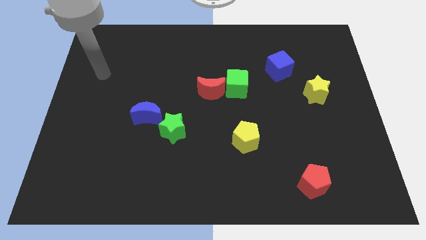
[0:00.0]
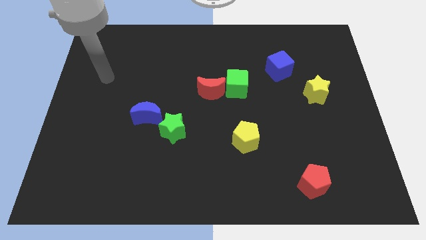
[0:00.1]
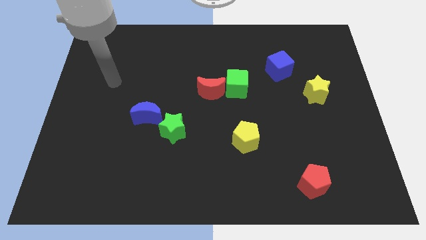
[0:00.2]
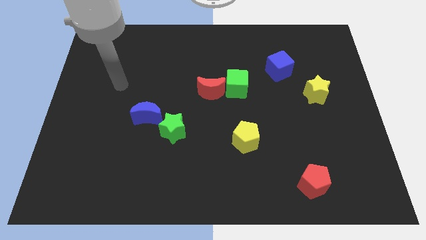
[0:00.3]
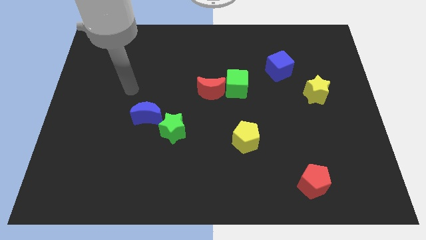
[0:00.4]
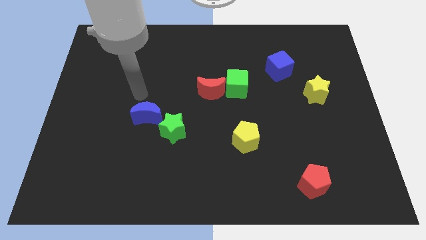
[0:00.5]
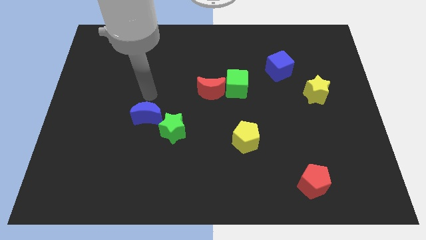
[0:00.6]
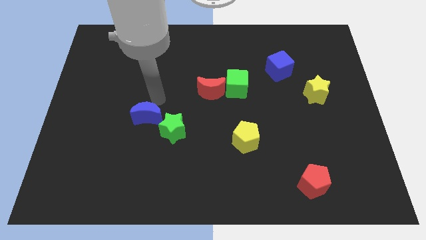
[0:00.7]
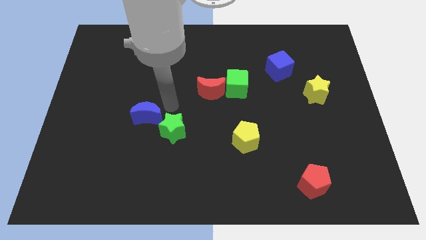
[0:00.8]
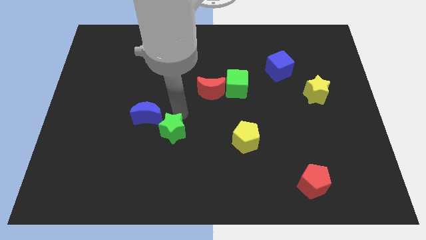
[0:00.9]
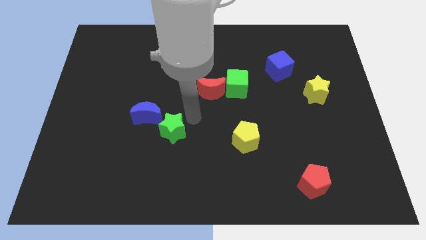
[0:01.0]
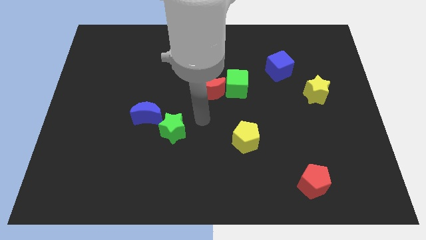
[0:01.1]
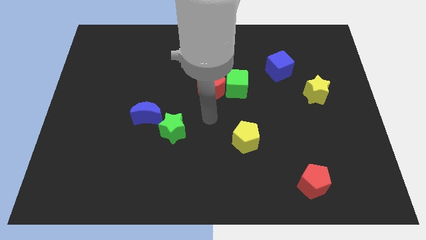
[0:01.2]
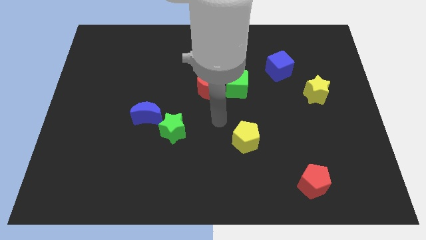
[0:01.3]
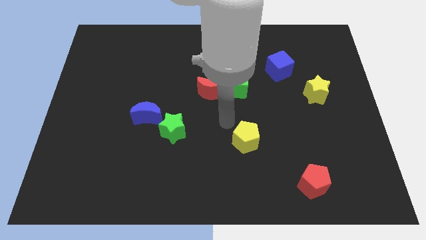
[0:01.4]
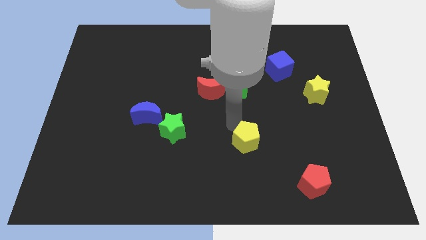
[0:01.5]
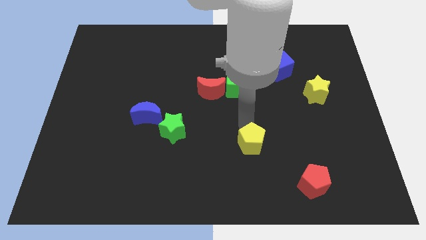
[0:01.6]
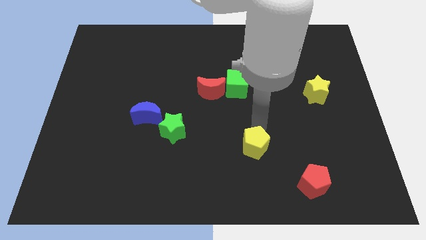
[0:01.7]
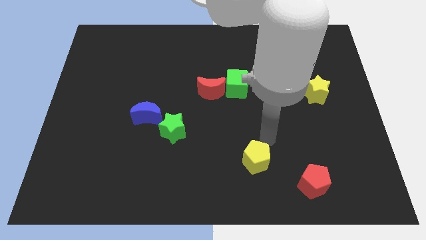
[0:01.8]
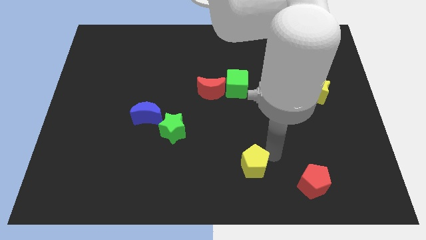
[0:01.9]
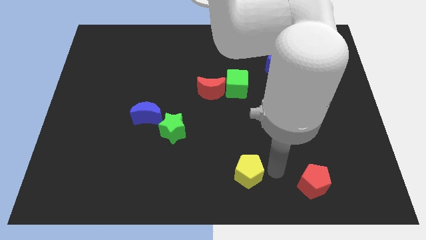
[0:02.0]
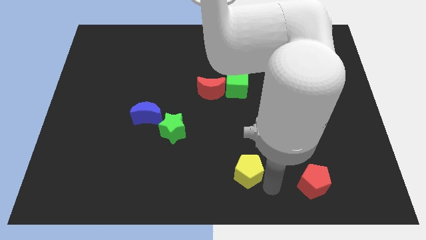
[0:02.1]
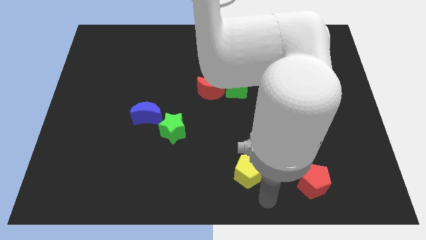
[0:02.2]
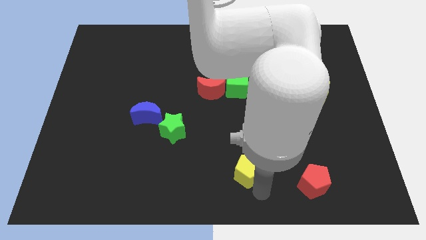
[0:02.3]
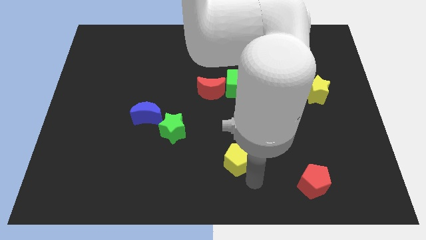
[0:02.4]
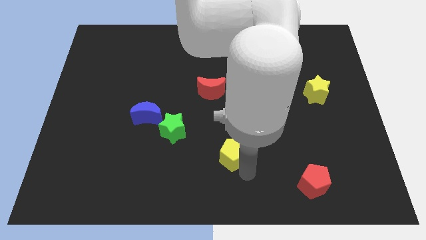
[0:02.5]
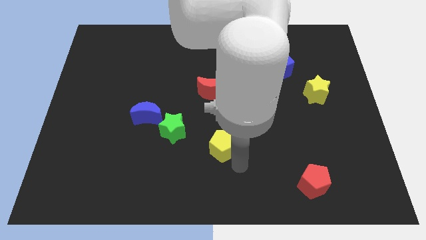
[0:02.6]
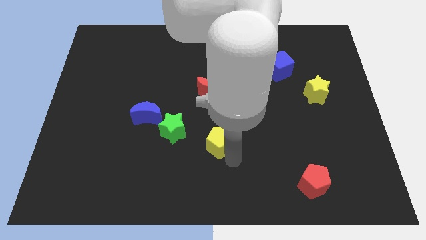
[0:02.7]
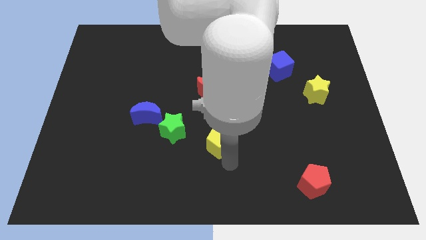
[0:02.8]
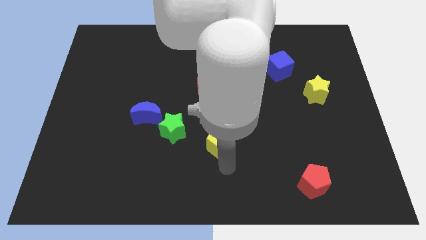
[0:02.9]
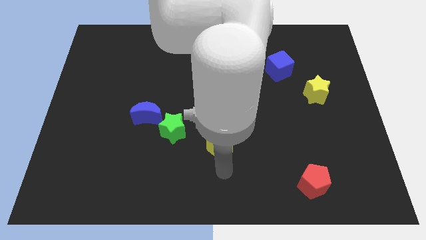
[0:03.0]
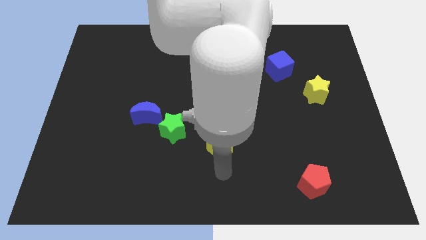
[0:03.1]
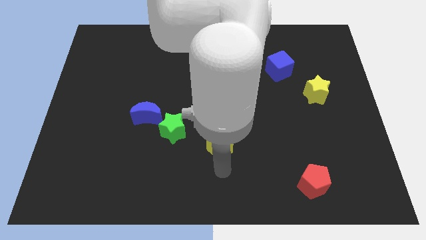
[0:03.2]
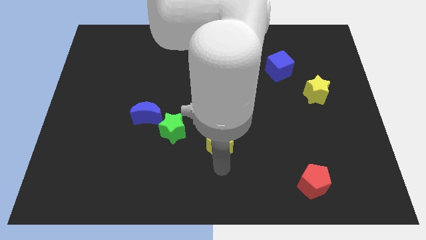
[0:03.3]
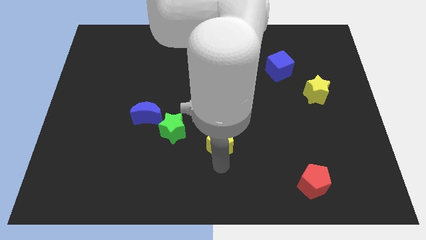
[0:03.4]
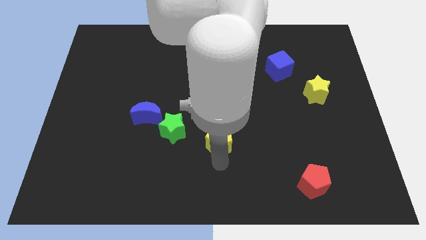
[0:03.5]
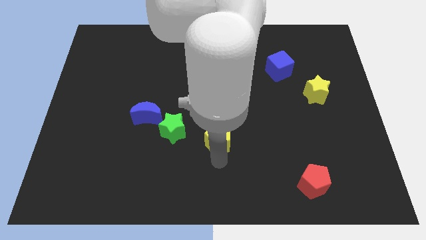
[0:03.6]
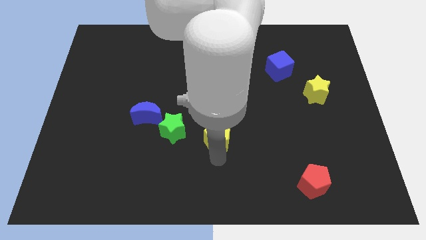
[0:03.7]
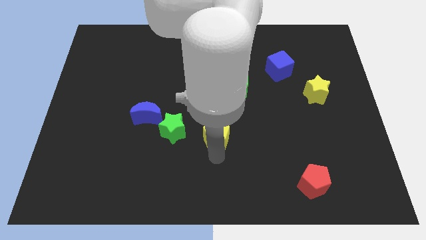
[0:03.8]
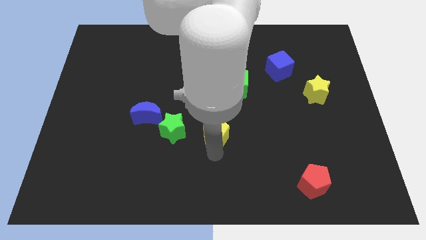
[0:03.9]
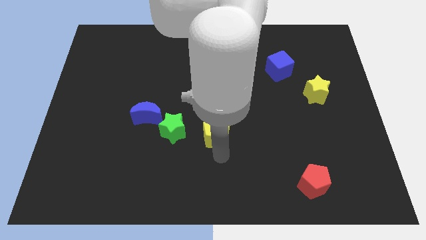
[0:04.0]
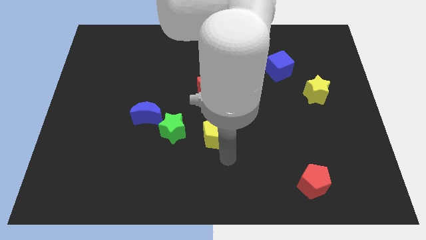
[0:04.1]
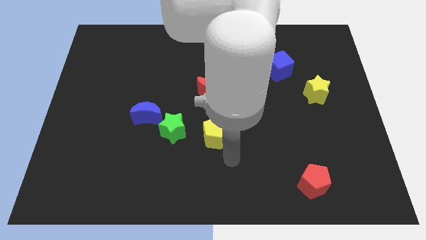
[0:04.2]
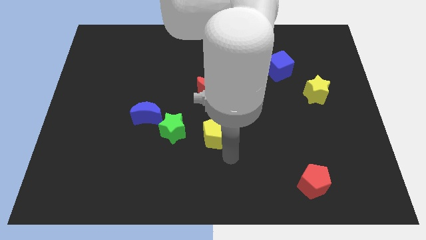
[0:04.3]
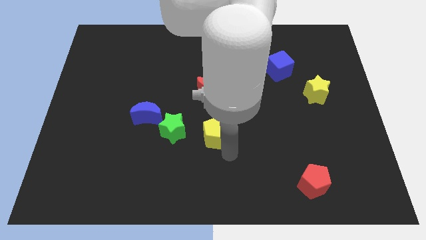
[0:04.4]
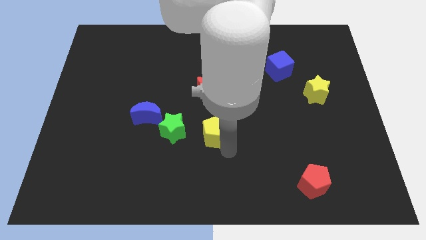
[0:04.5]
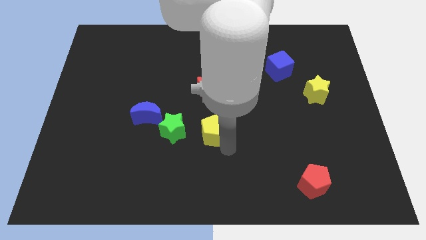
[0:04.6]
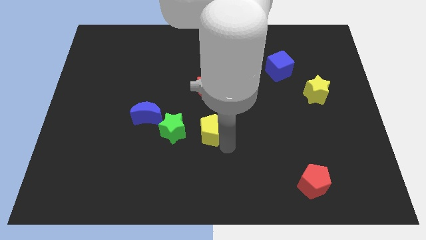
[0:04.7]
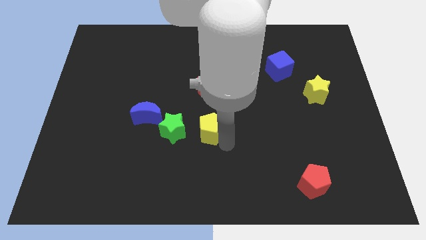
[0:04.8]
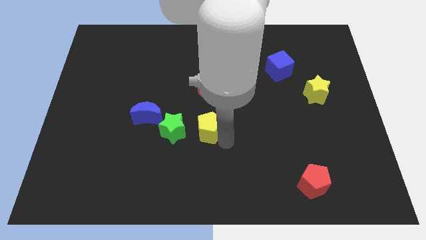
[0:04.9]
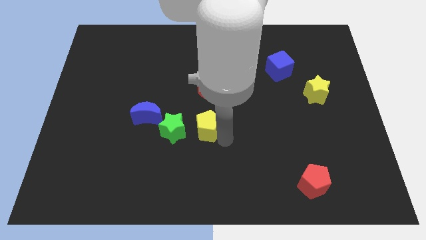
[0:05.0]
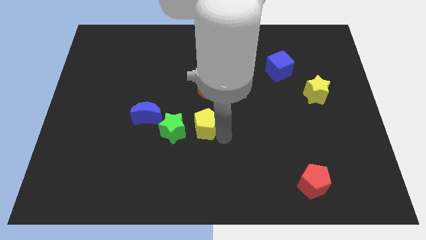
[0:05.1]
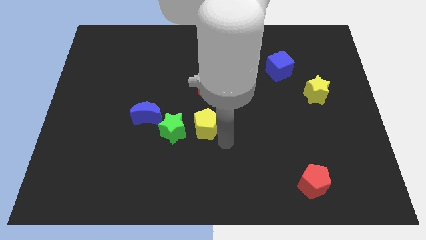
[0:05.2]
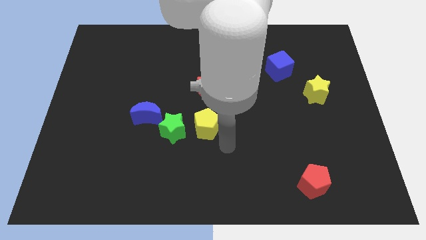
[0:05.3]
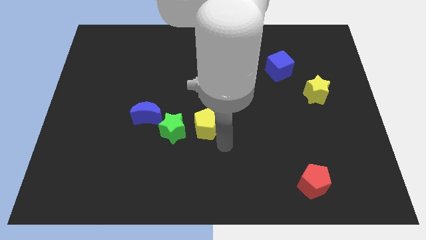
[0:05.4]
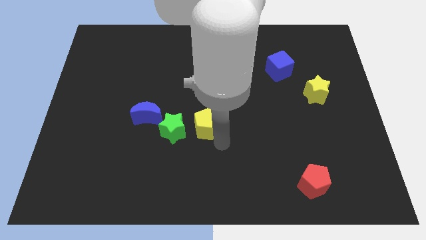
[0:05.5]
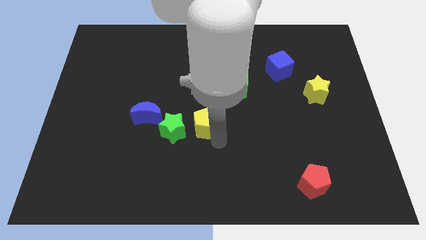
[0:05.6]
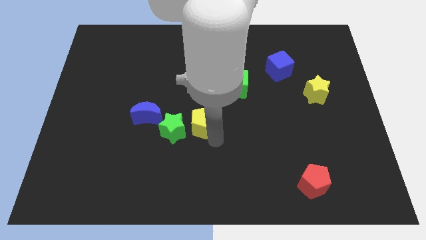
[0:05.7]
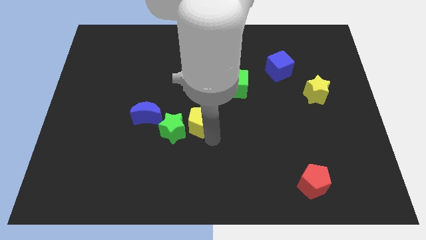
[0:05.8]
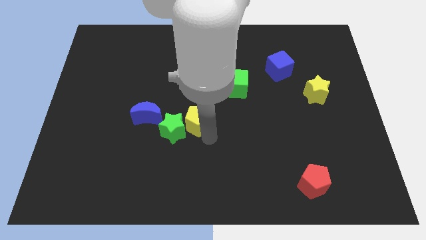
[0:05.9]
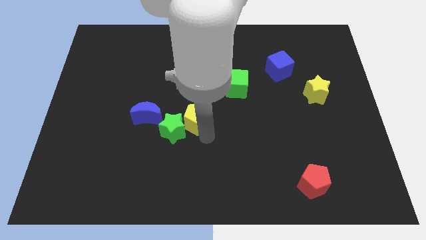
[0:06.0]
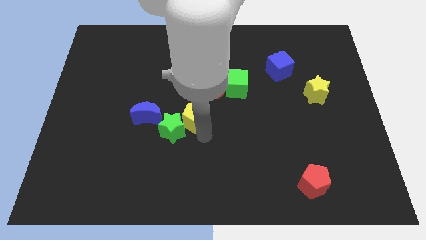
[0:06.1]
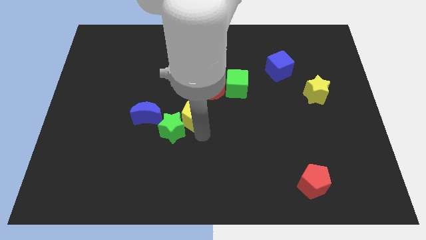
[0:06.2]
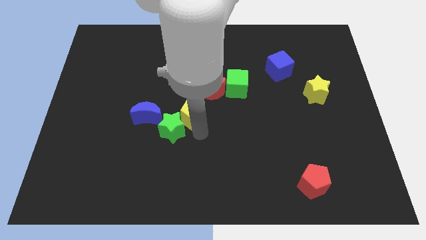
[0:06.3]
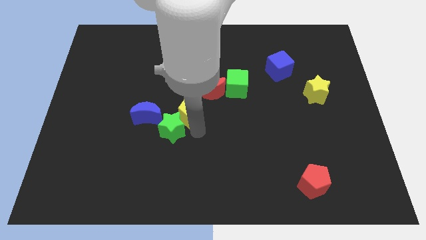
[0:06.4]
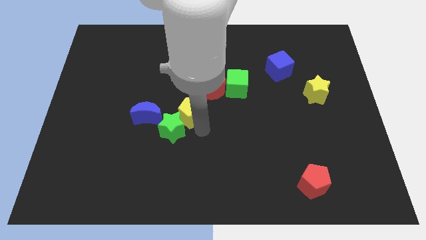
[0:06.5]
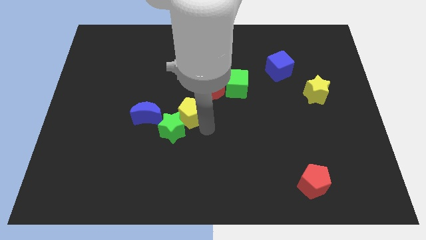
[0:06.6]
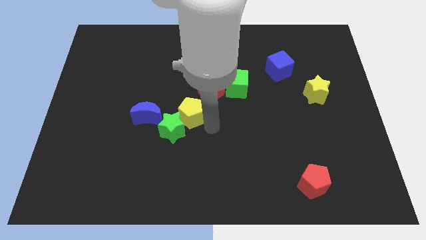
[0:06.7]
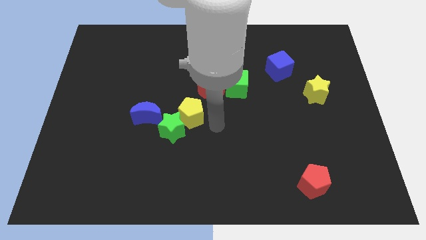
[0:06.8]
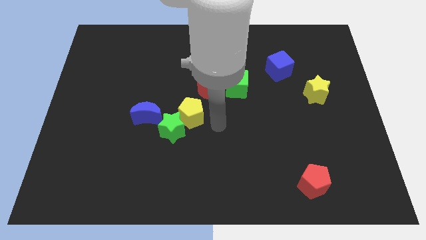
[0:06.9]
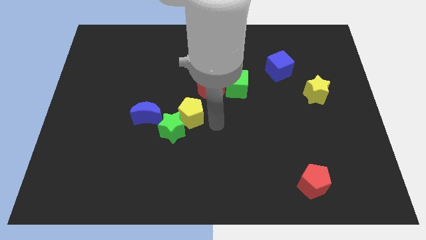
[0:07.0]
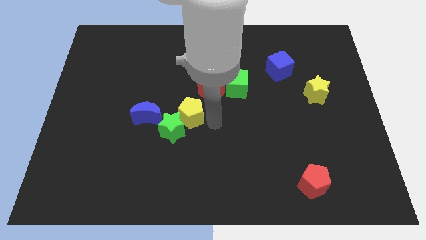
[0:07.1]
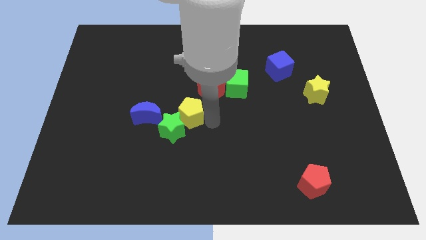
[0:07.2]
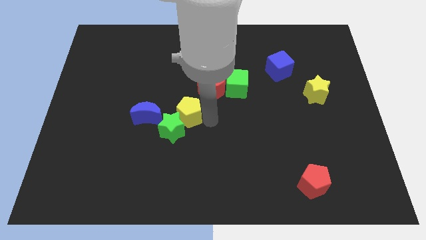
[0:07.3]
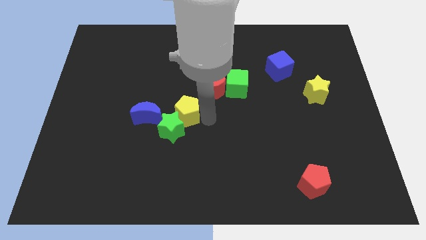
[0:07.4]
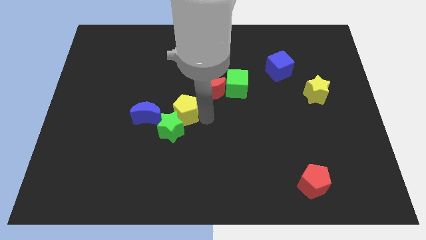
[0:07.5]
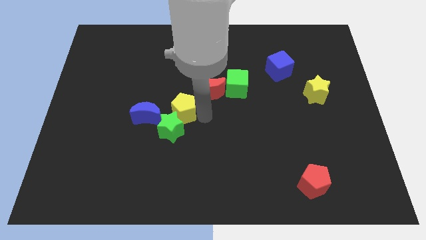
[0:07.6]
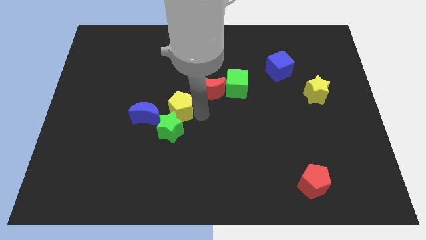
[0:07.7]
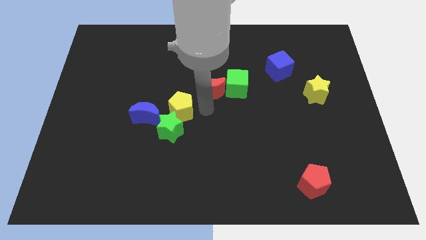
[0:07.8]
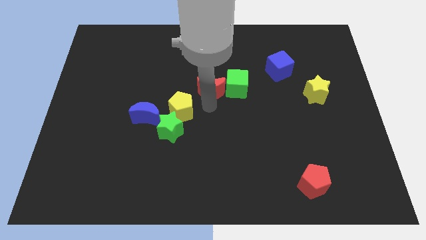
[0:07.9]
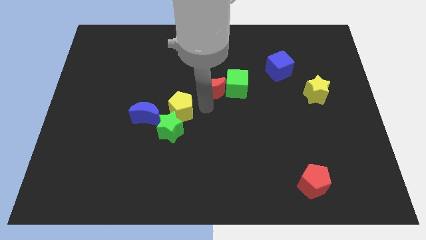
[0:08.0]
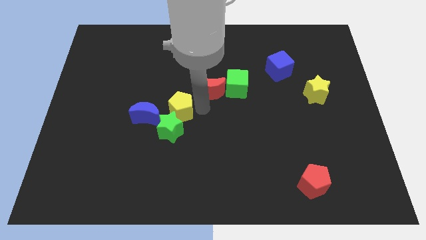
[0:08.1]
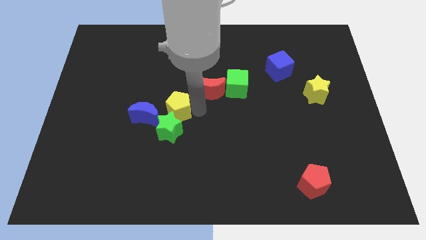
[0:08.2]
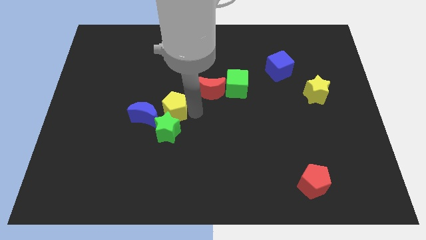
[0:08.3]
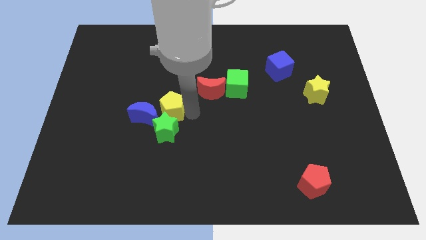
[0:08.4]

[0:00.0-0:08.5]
push the yellow pentagon next to the blue moon
